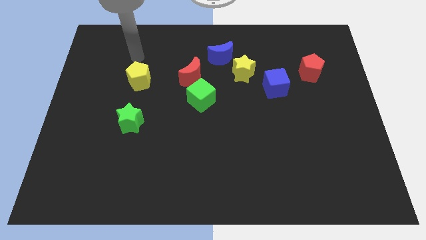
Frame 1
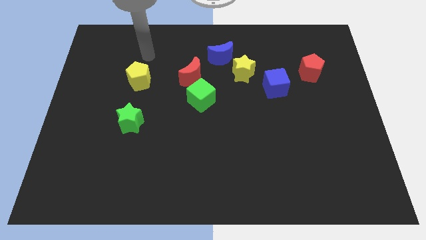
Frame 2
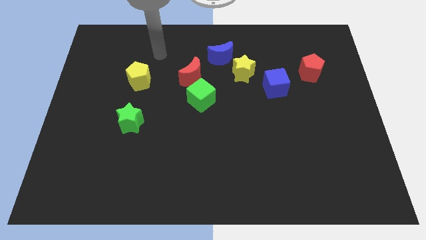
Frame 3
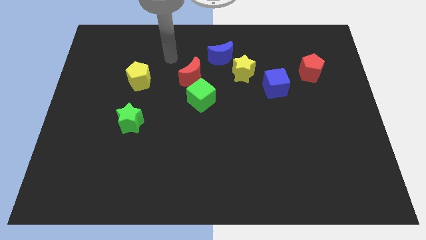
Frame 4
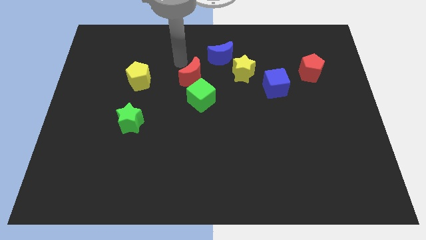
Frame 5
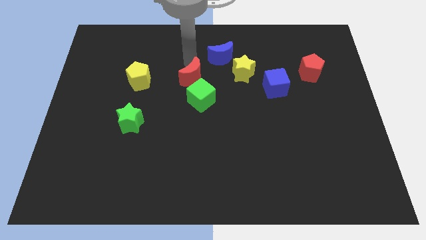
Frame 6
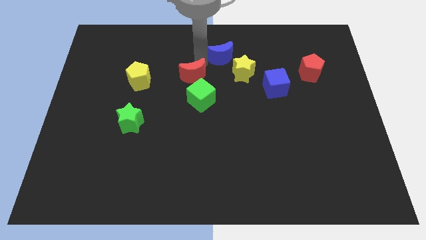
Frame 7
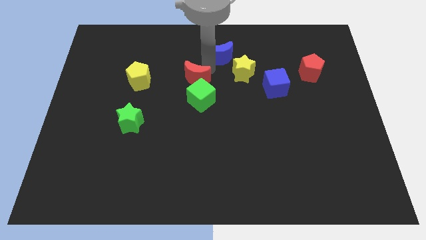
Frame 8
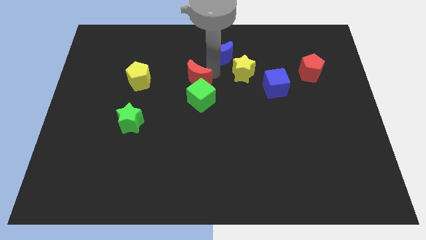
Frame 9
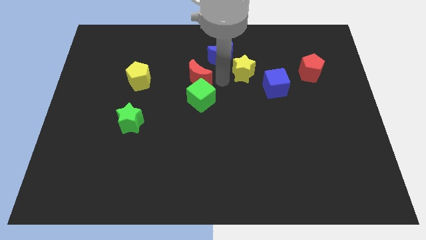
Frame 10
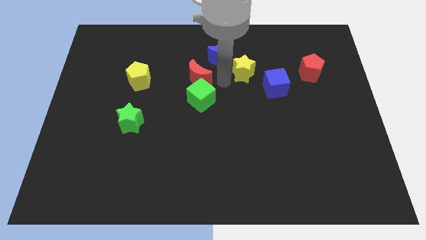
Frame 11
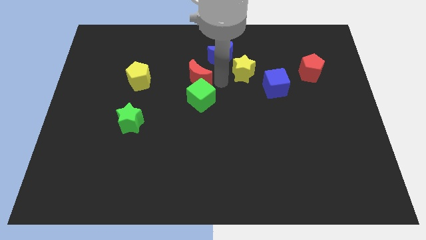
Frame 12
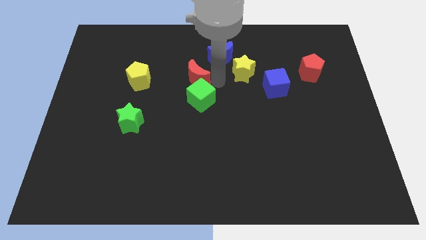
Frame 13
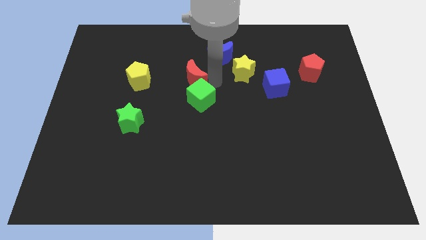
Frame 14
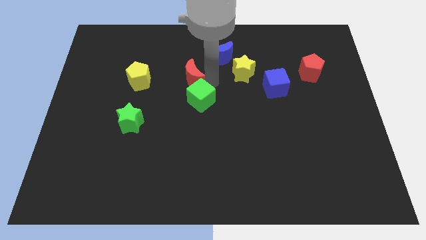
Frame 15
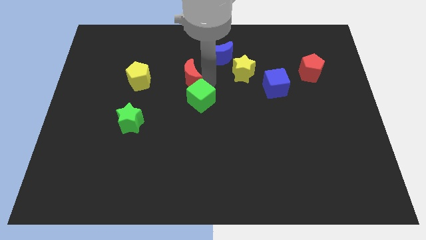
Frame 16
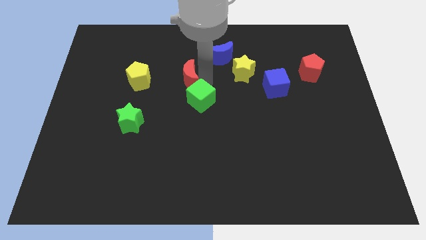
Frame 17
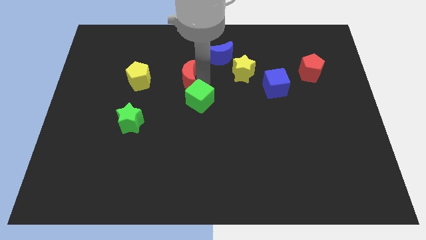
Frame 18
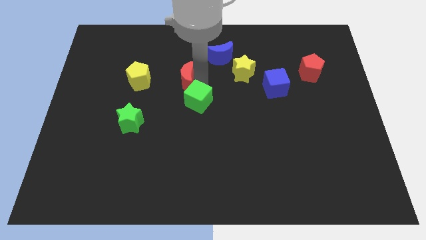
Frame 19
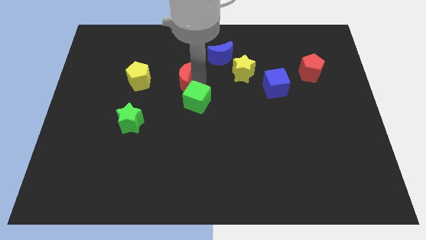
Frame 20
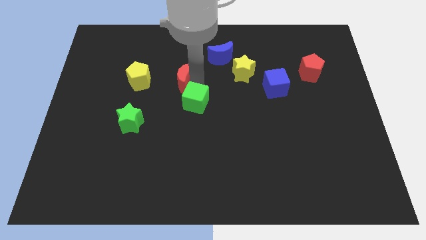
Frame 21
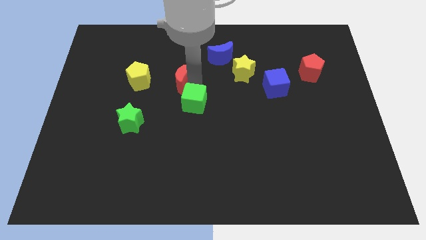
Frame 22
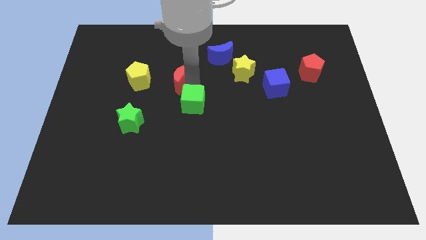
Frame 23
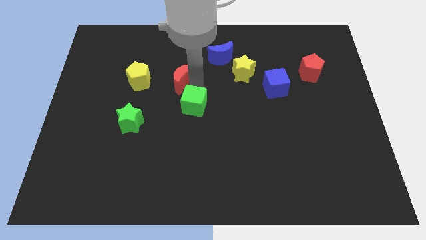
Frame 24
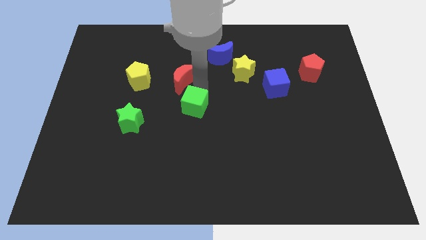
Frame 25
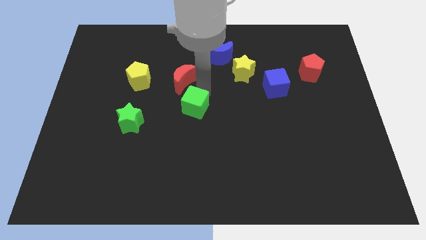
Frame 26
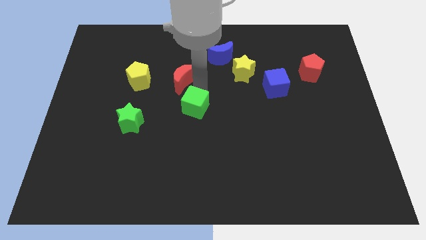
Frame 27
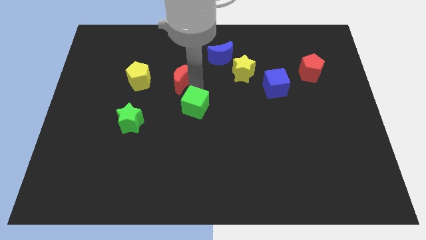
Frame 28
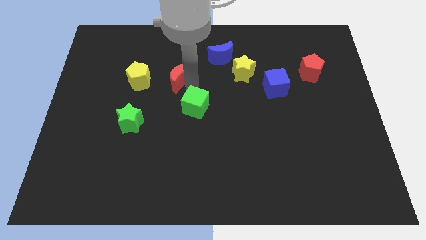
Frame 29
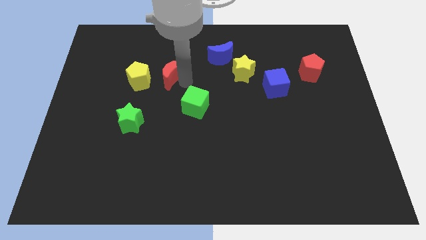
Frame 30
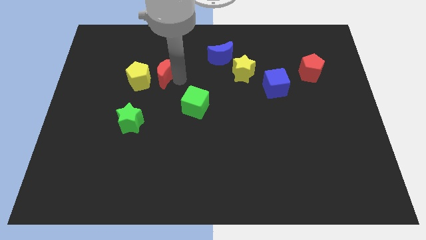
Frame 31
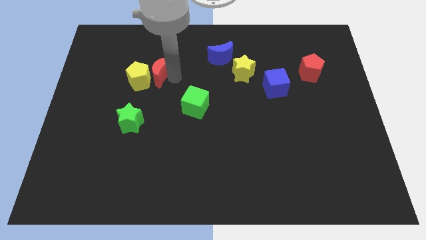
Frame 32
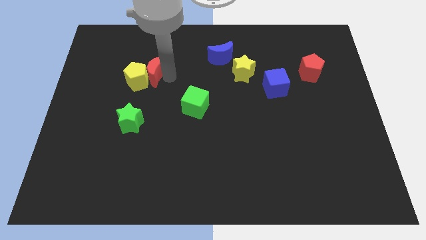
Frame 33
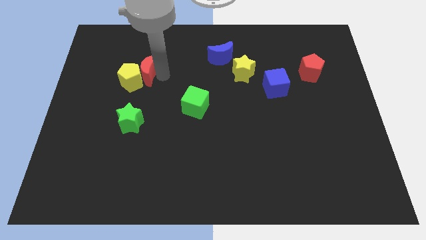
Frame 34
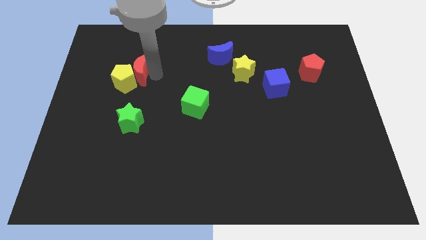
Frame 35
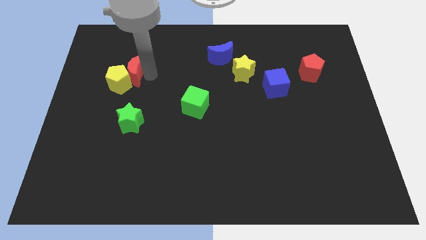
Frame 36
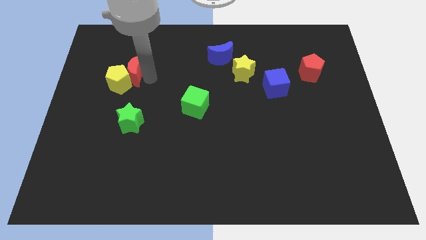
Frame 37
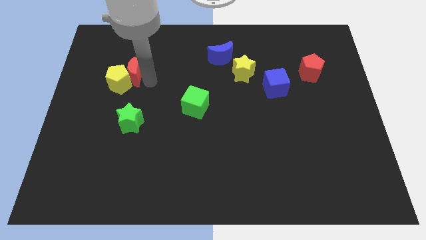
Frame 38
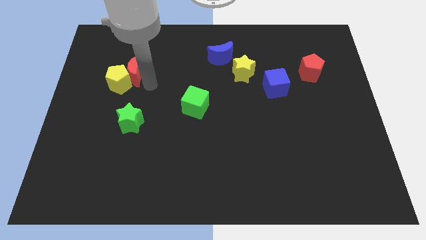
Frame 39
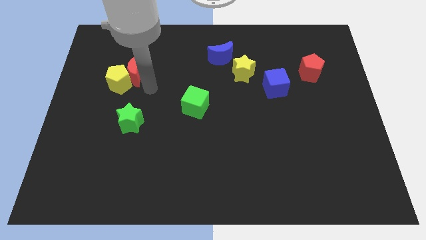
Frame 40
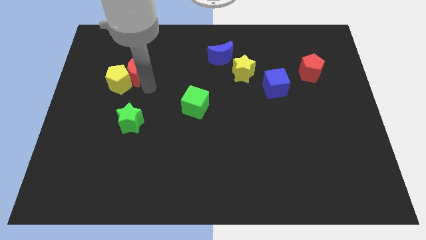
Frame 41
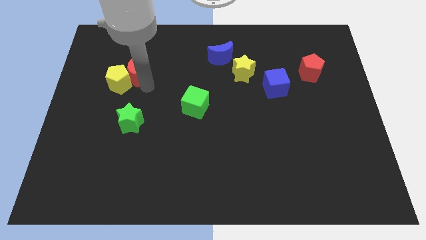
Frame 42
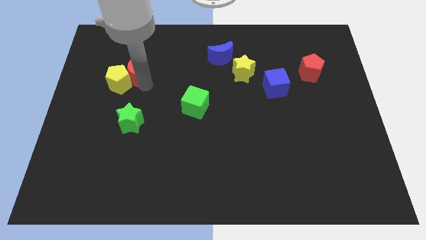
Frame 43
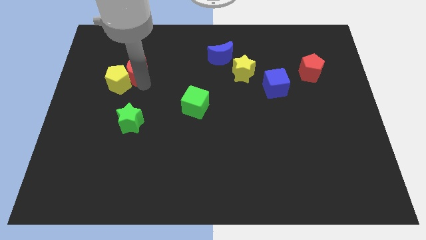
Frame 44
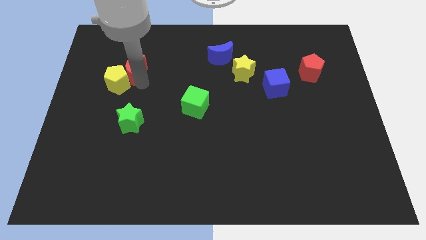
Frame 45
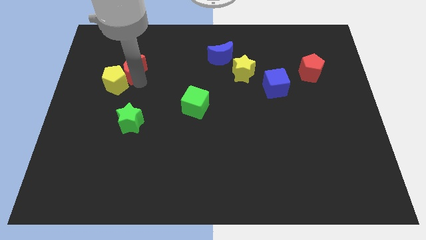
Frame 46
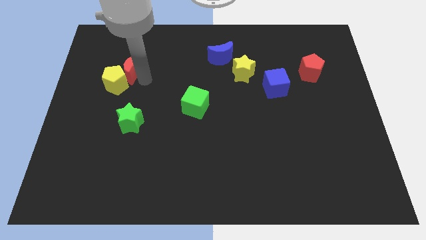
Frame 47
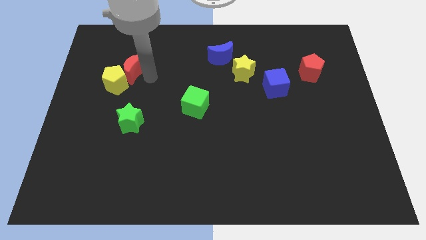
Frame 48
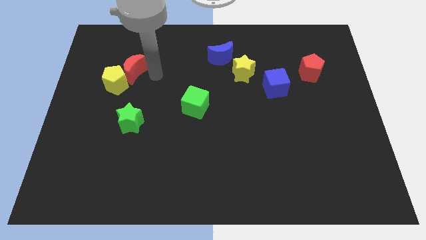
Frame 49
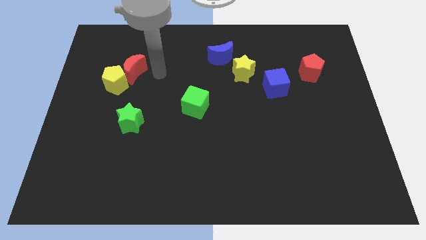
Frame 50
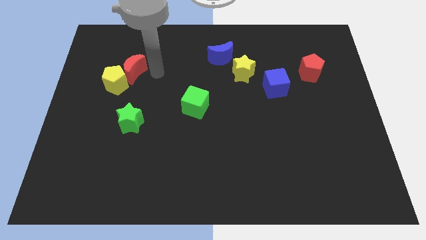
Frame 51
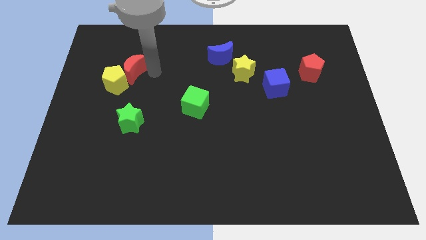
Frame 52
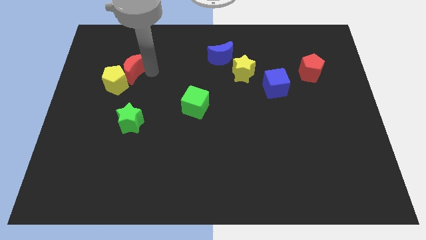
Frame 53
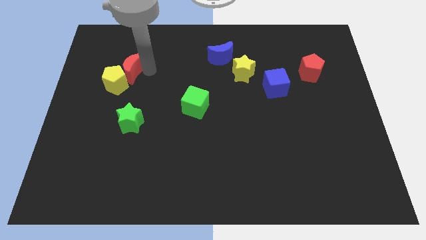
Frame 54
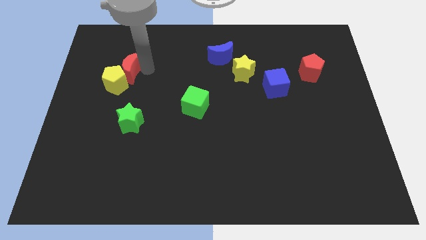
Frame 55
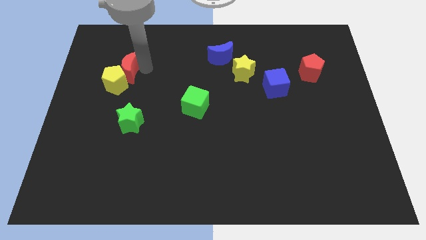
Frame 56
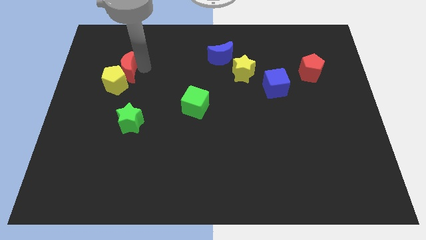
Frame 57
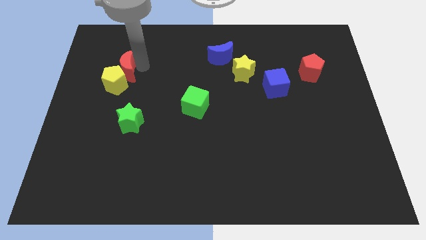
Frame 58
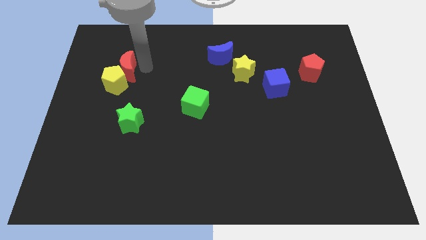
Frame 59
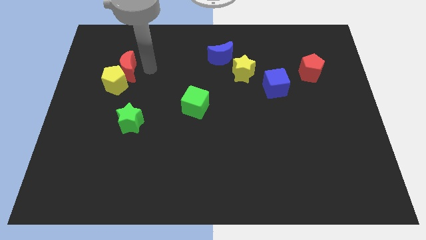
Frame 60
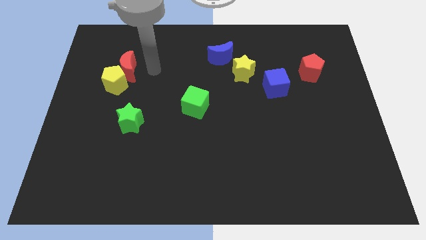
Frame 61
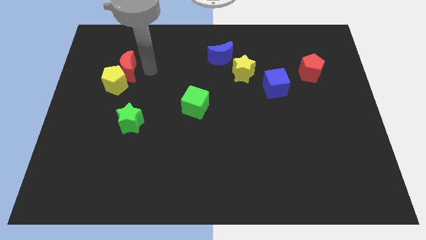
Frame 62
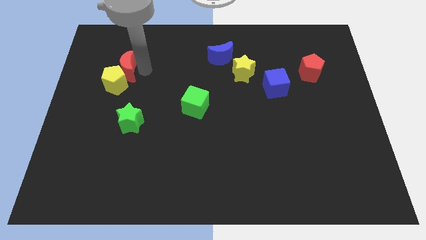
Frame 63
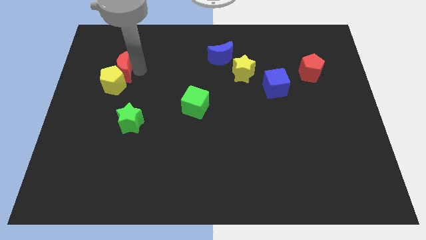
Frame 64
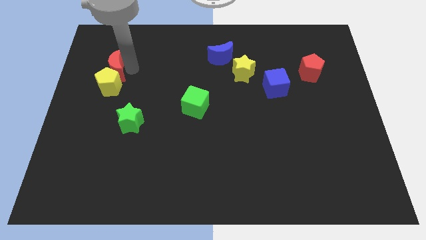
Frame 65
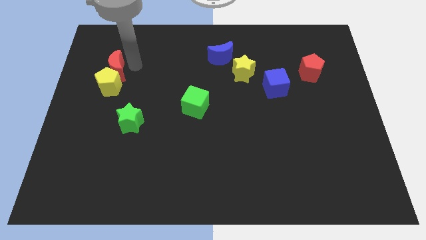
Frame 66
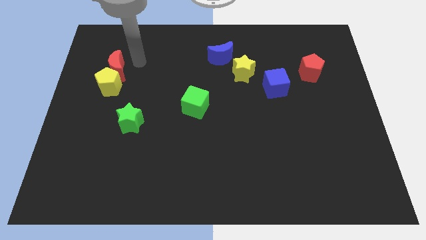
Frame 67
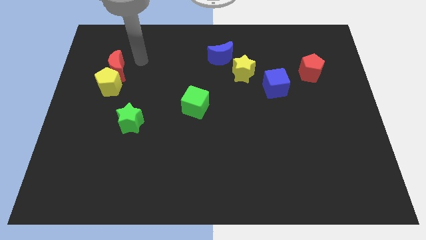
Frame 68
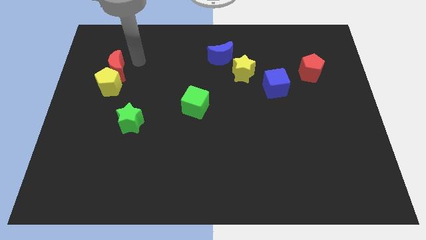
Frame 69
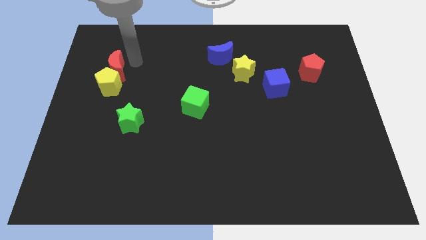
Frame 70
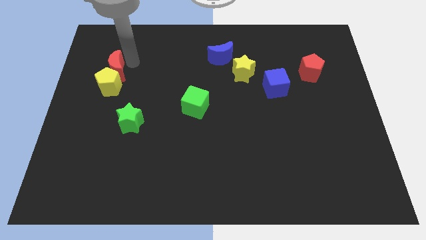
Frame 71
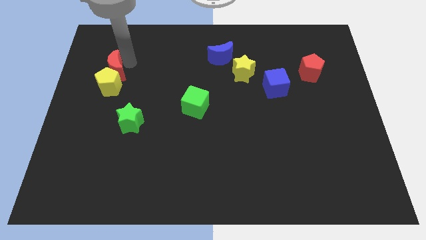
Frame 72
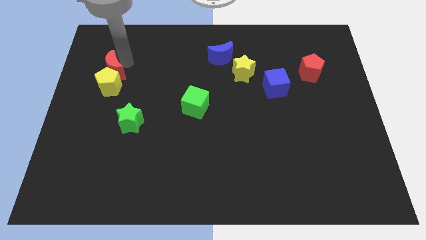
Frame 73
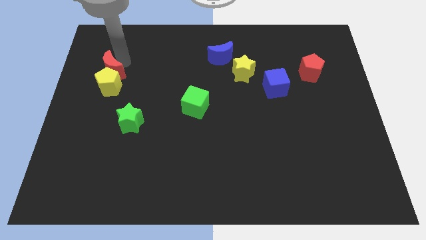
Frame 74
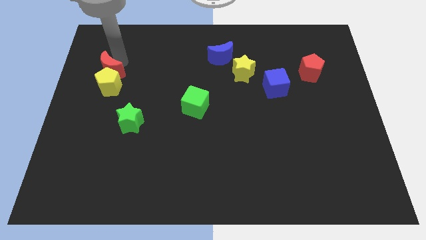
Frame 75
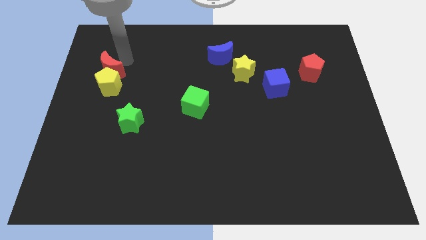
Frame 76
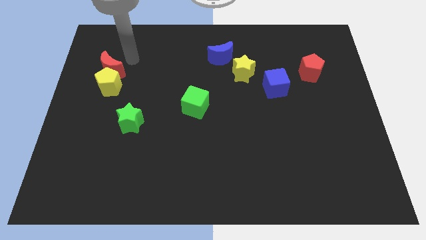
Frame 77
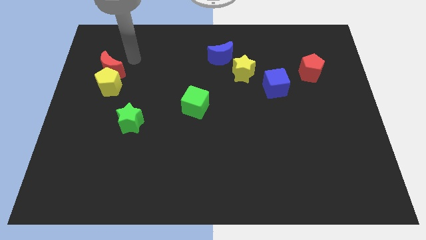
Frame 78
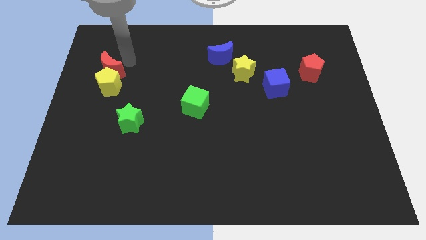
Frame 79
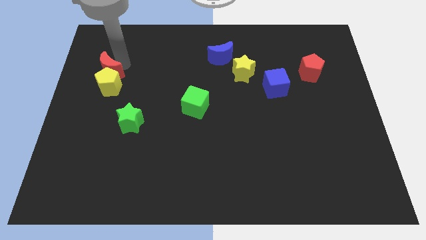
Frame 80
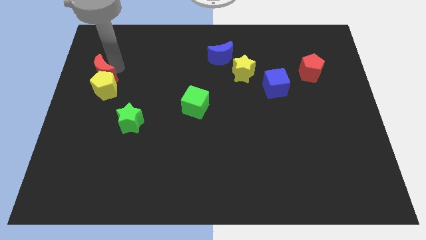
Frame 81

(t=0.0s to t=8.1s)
slide the red moon to the left side
